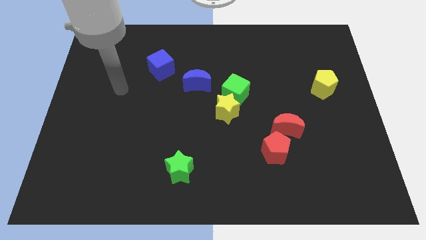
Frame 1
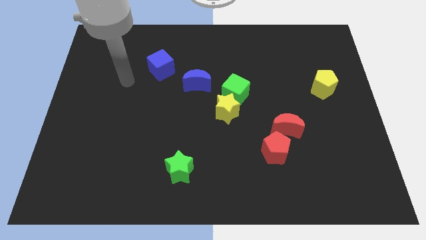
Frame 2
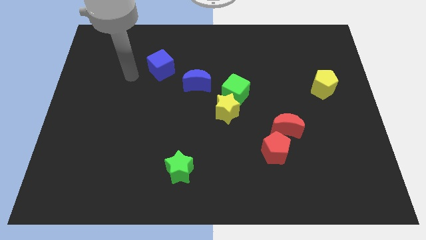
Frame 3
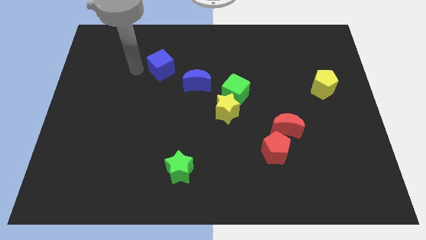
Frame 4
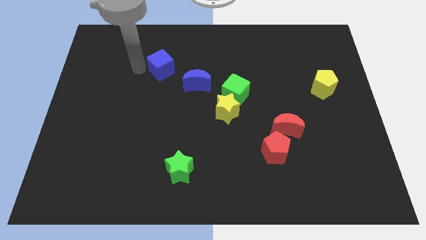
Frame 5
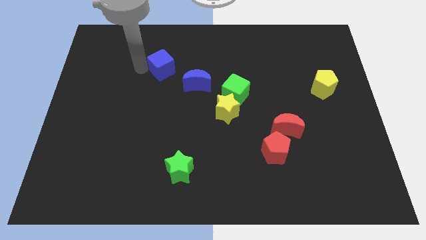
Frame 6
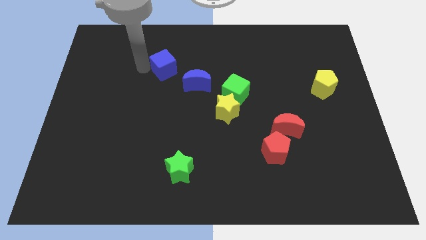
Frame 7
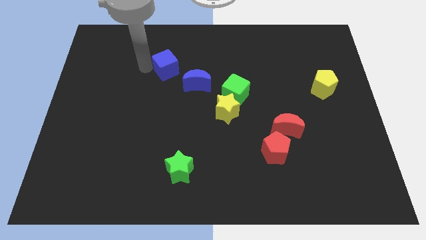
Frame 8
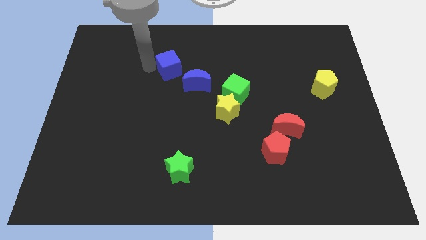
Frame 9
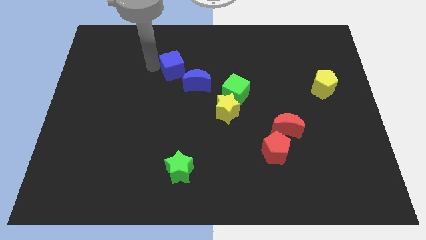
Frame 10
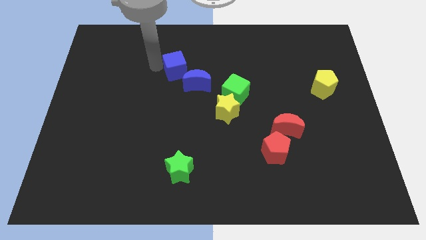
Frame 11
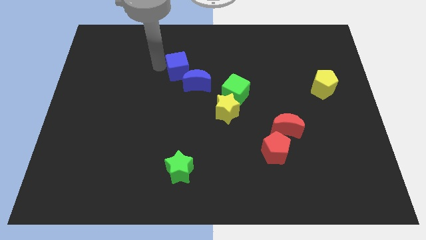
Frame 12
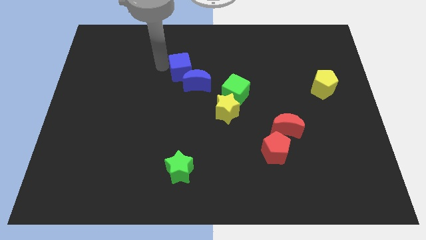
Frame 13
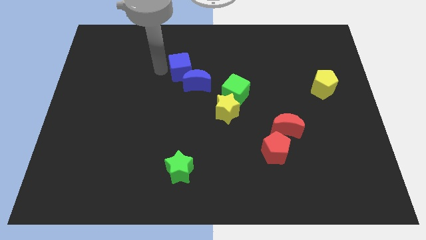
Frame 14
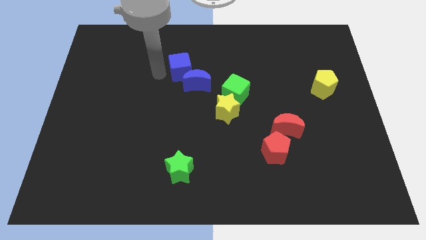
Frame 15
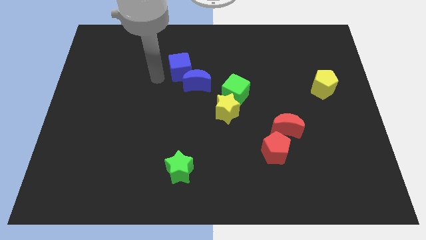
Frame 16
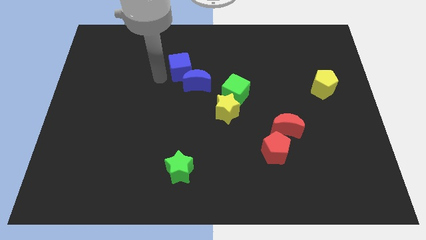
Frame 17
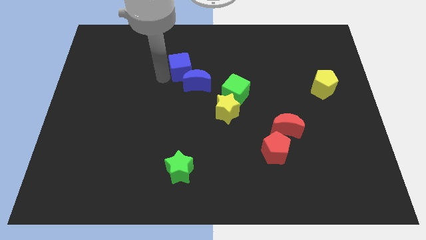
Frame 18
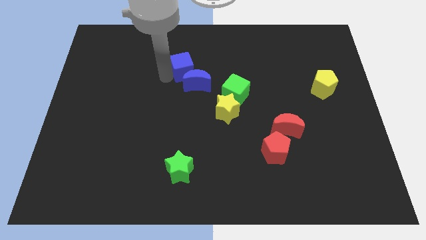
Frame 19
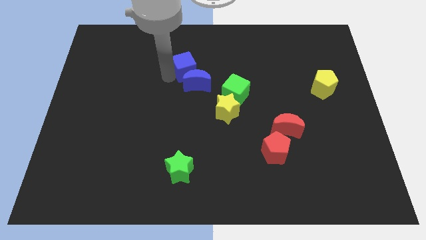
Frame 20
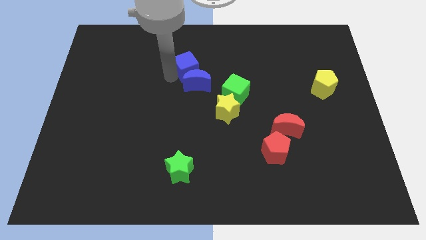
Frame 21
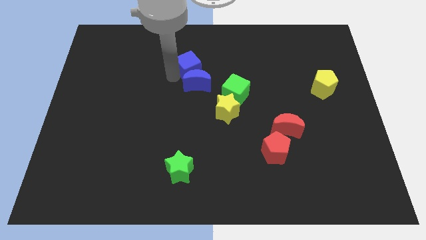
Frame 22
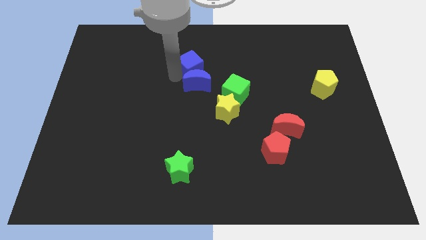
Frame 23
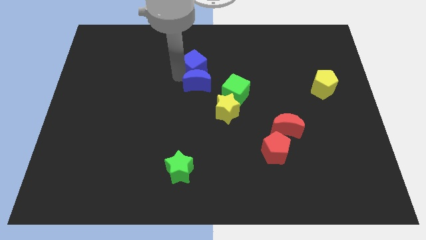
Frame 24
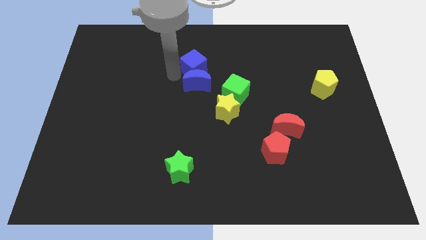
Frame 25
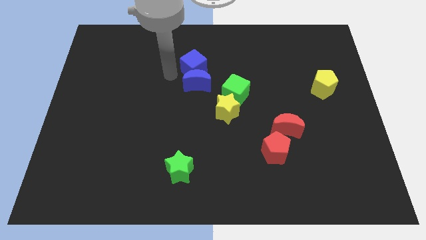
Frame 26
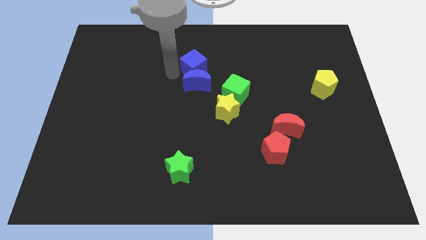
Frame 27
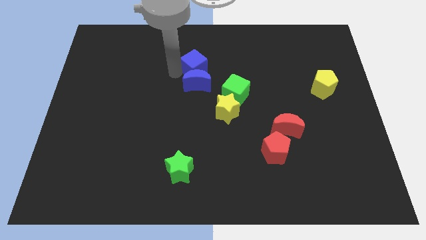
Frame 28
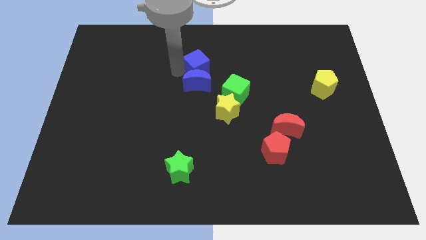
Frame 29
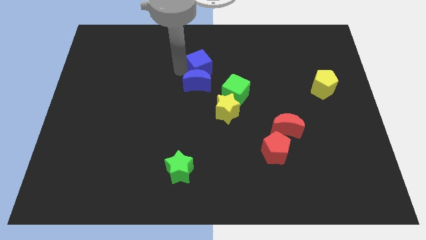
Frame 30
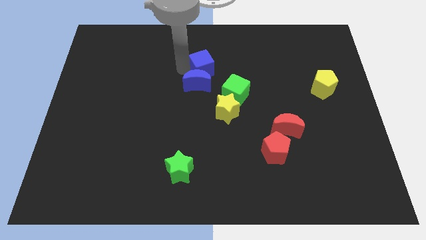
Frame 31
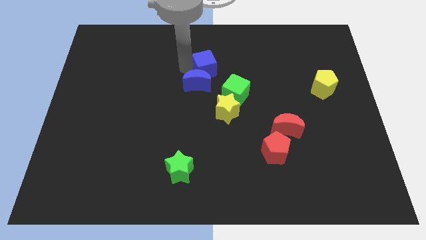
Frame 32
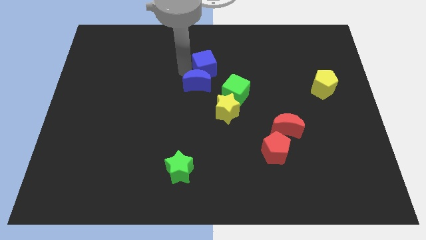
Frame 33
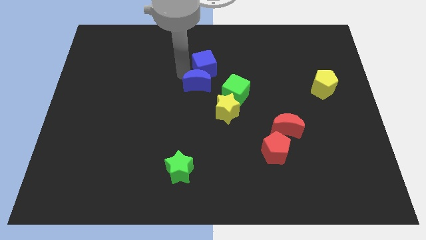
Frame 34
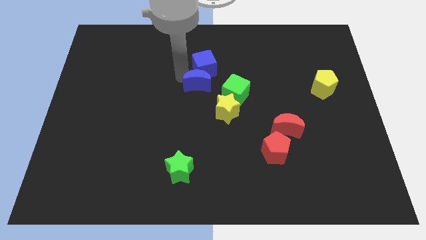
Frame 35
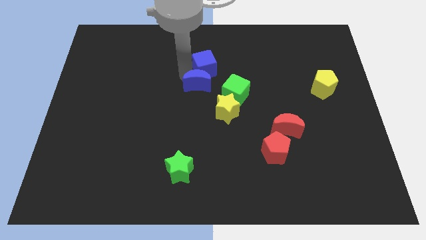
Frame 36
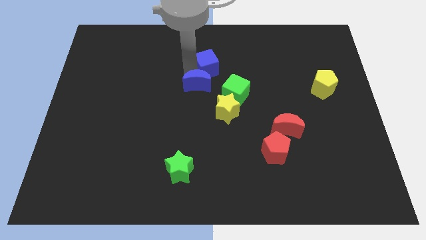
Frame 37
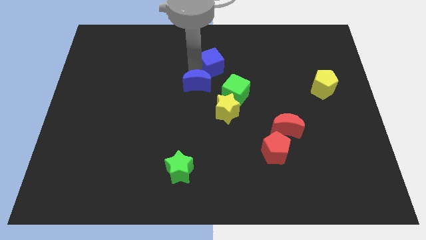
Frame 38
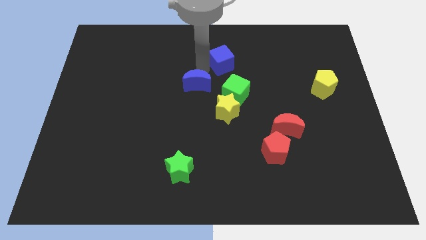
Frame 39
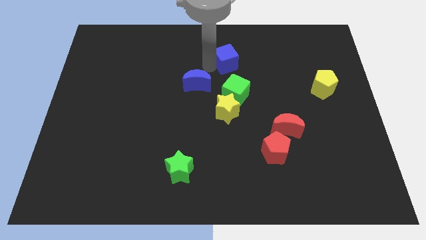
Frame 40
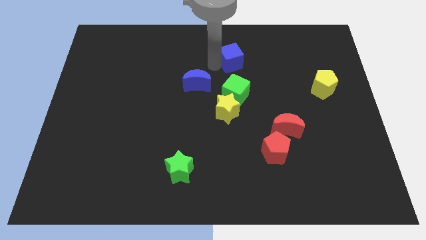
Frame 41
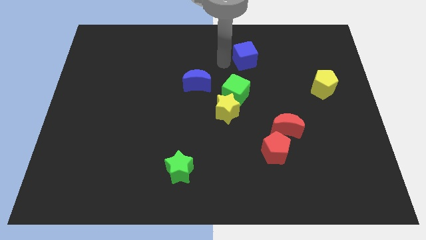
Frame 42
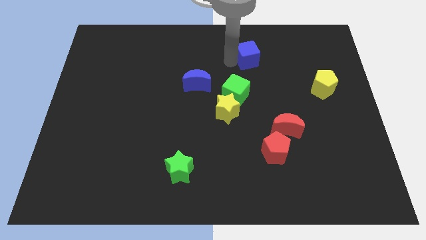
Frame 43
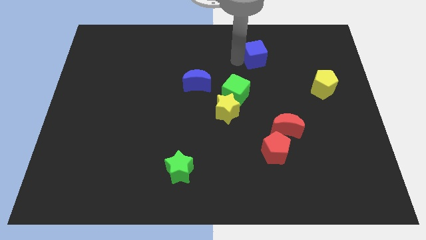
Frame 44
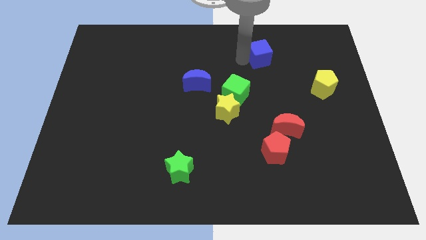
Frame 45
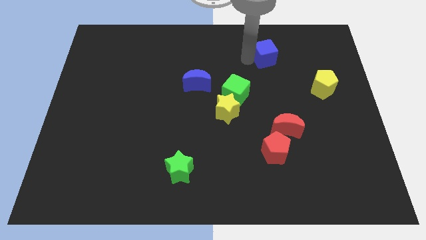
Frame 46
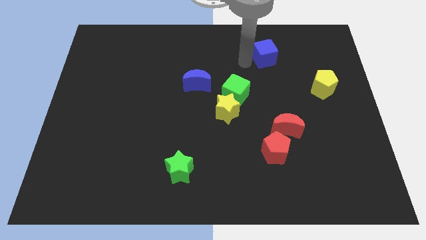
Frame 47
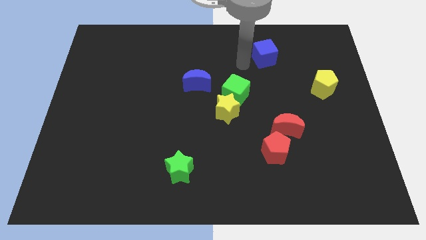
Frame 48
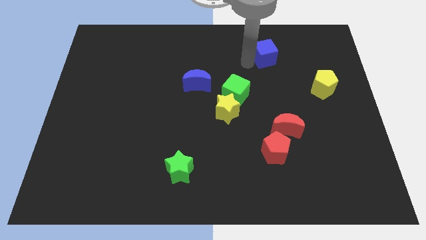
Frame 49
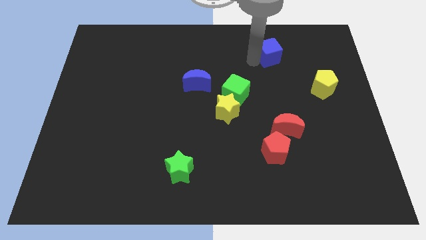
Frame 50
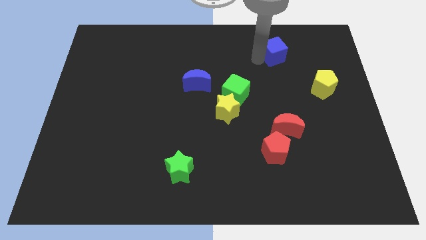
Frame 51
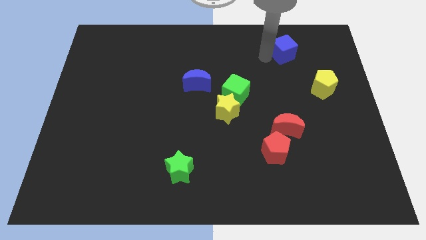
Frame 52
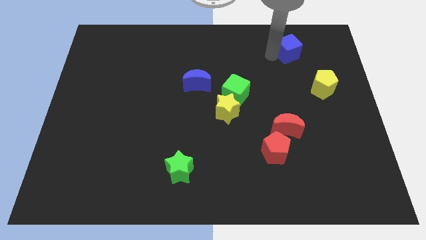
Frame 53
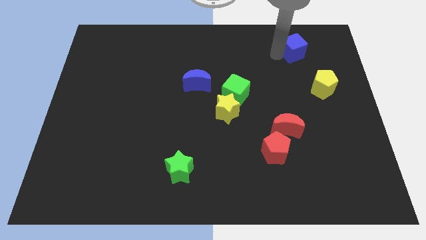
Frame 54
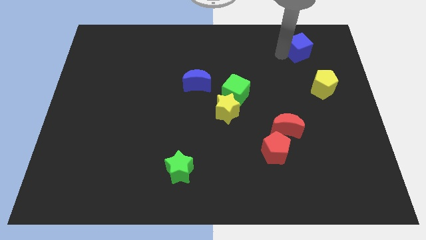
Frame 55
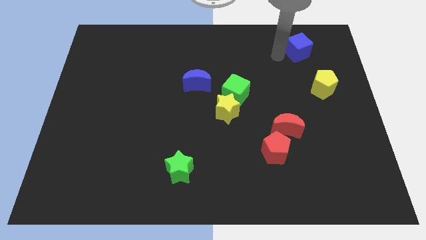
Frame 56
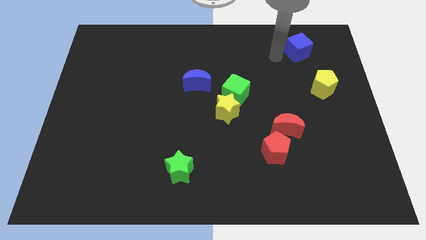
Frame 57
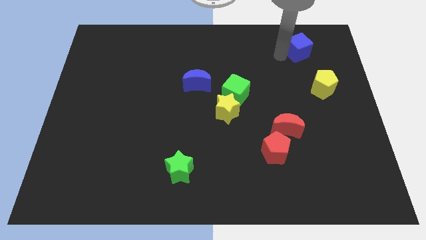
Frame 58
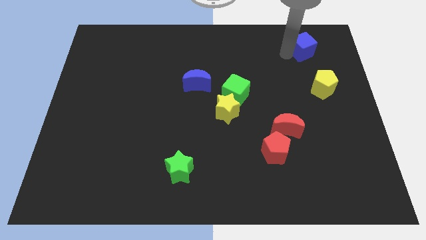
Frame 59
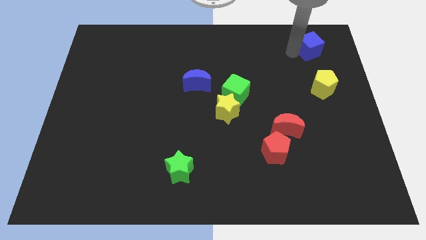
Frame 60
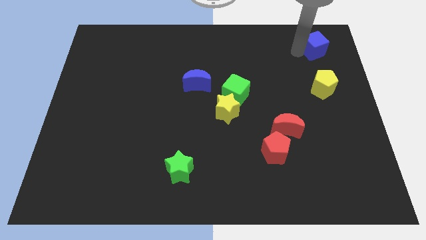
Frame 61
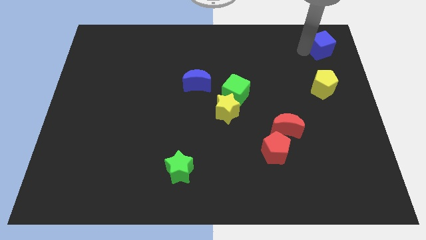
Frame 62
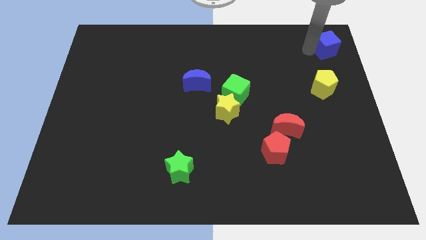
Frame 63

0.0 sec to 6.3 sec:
slide the blue cube to the top right of the board
